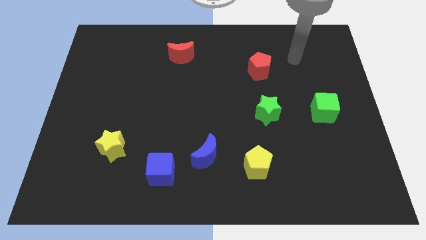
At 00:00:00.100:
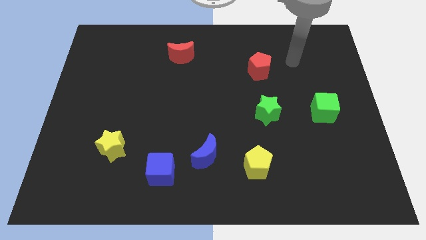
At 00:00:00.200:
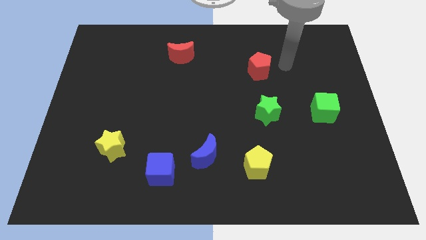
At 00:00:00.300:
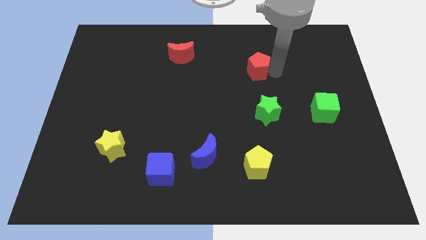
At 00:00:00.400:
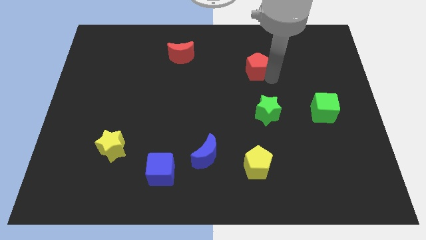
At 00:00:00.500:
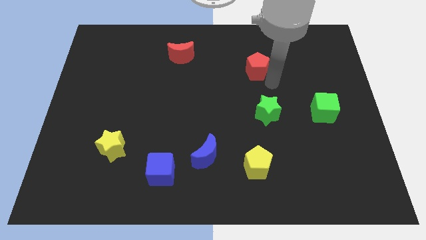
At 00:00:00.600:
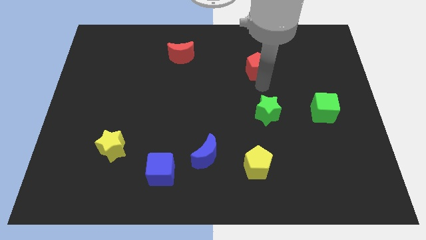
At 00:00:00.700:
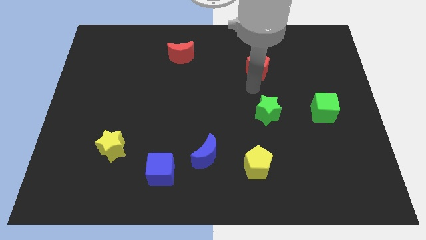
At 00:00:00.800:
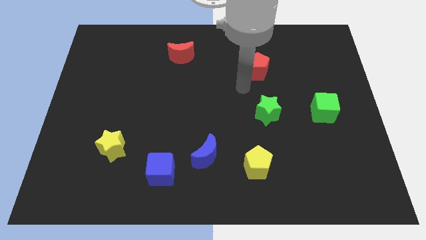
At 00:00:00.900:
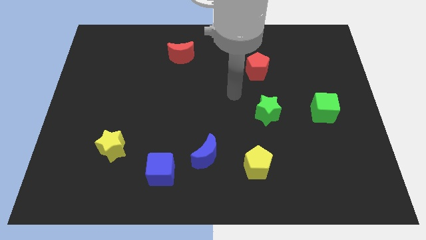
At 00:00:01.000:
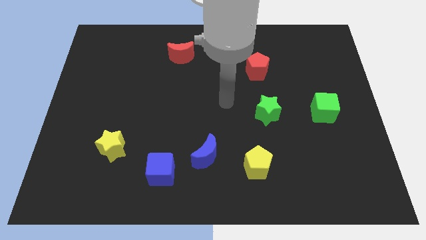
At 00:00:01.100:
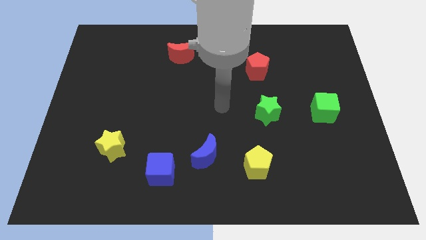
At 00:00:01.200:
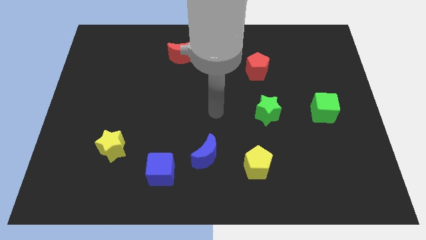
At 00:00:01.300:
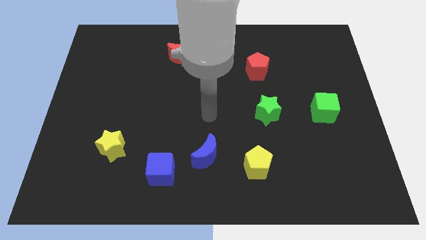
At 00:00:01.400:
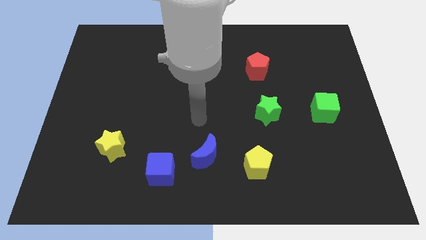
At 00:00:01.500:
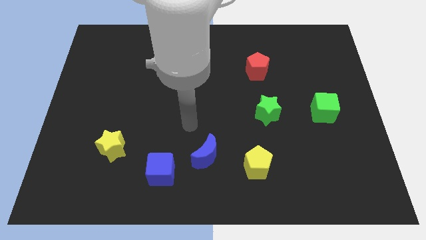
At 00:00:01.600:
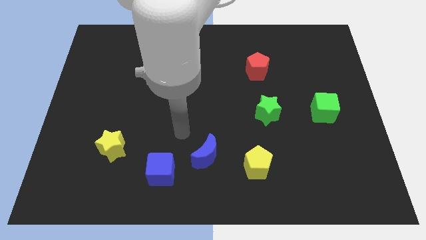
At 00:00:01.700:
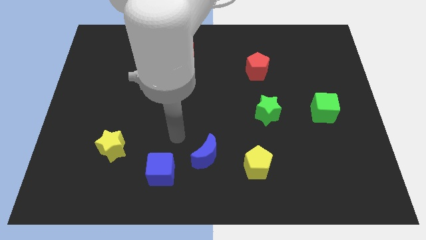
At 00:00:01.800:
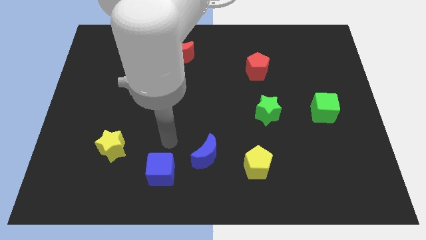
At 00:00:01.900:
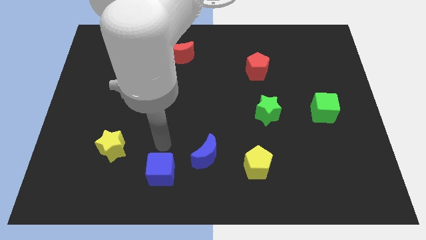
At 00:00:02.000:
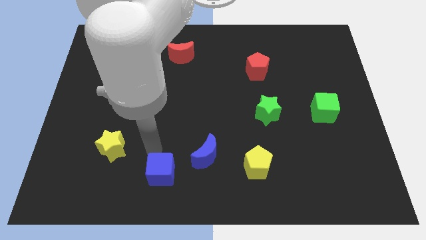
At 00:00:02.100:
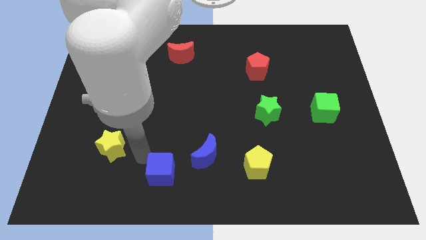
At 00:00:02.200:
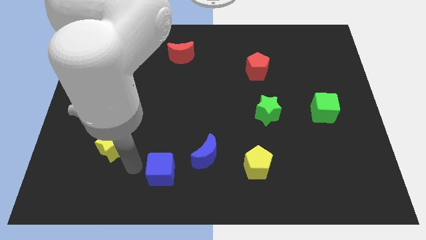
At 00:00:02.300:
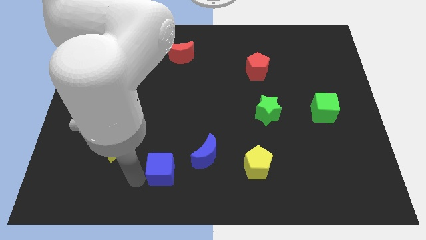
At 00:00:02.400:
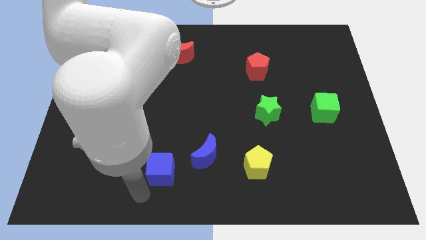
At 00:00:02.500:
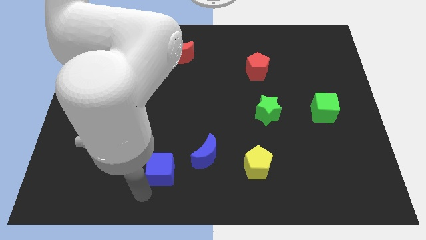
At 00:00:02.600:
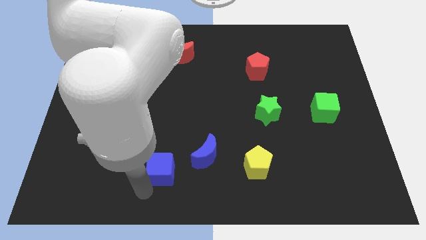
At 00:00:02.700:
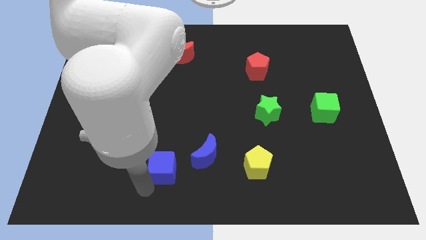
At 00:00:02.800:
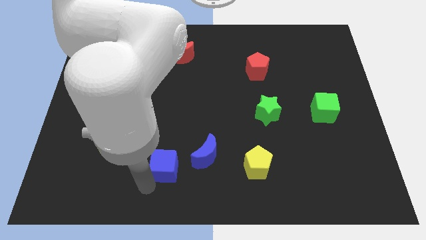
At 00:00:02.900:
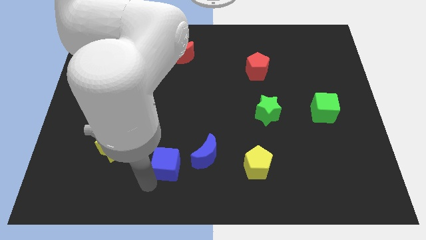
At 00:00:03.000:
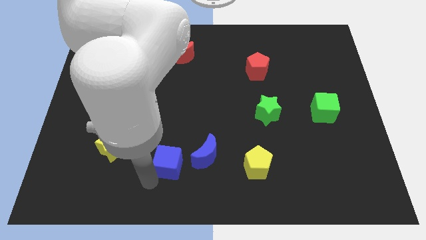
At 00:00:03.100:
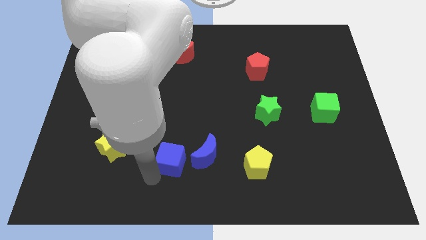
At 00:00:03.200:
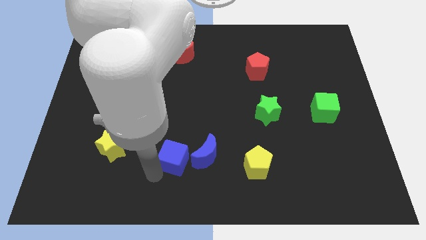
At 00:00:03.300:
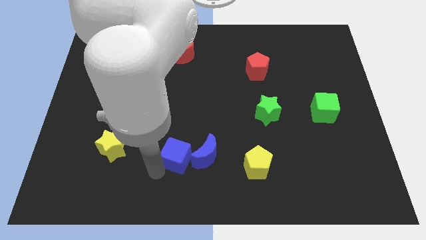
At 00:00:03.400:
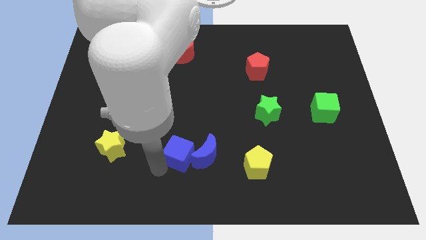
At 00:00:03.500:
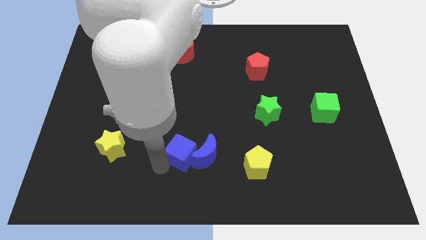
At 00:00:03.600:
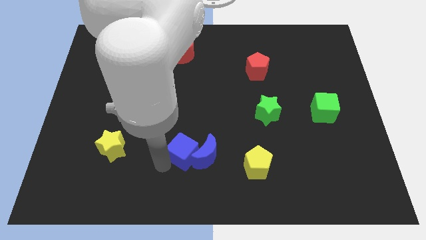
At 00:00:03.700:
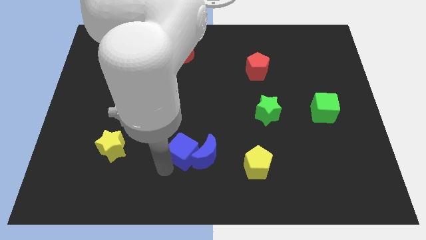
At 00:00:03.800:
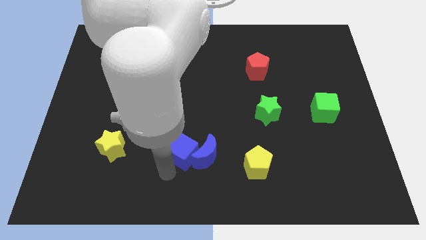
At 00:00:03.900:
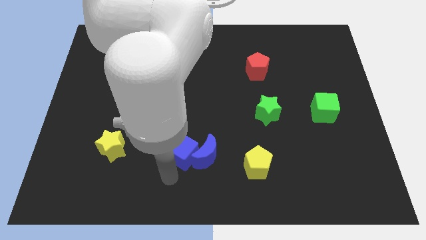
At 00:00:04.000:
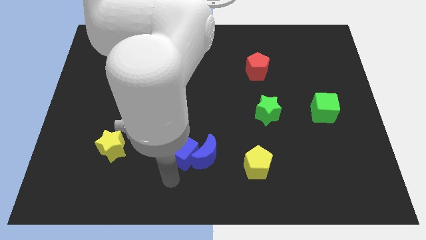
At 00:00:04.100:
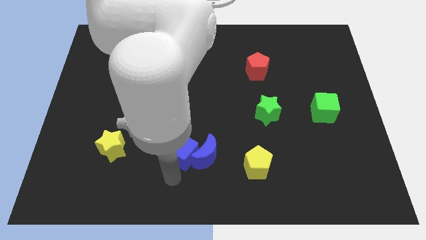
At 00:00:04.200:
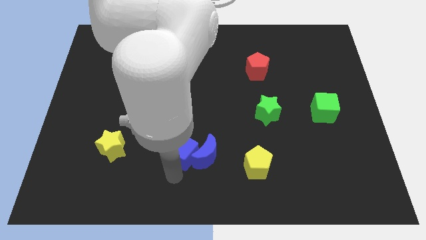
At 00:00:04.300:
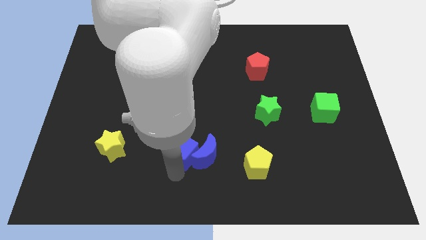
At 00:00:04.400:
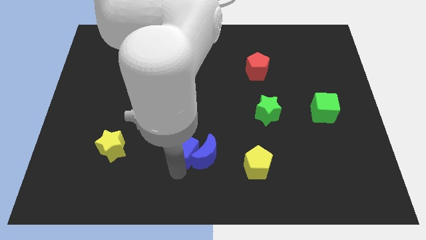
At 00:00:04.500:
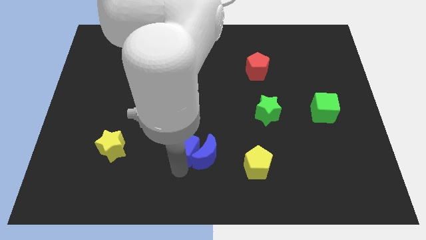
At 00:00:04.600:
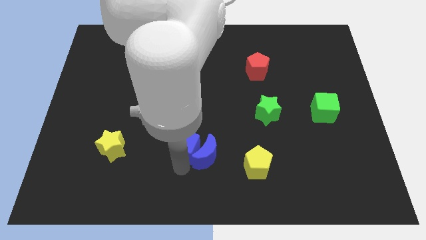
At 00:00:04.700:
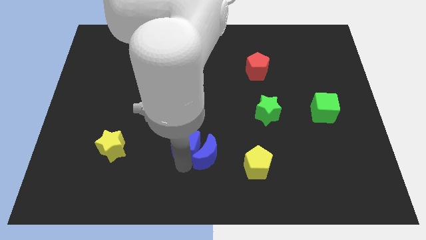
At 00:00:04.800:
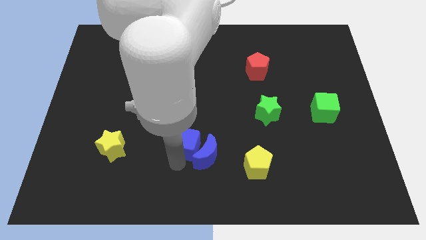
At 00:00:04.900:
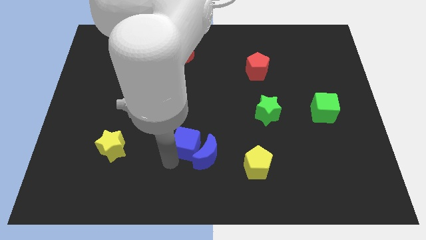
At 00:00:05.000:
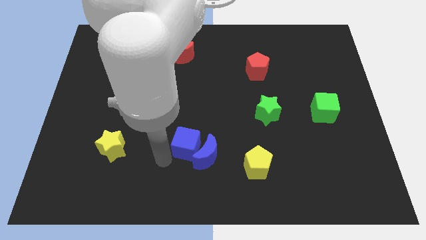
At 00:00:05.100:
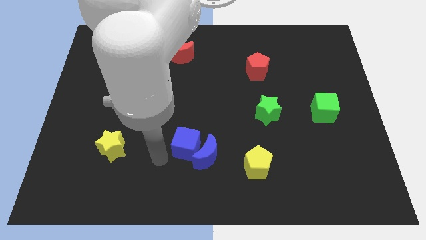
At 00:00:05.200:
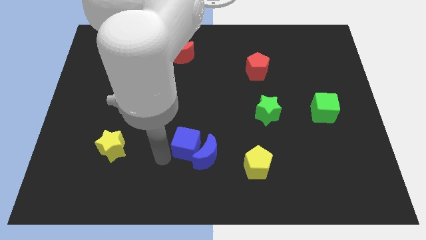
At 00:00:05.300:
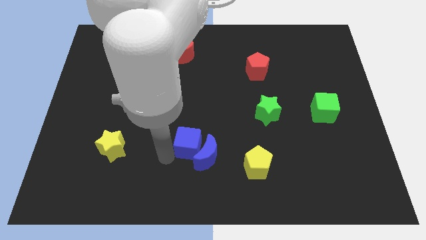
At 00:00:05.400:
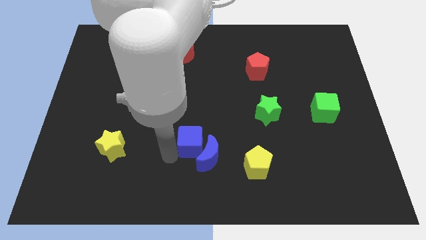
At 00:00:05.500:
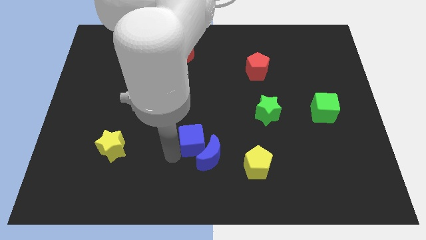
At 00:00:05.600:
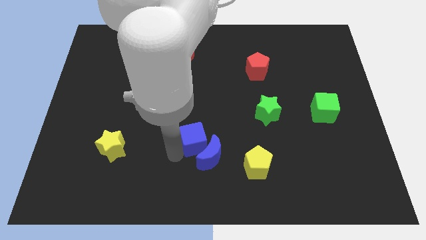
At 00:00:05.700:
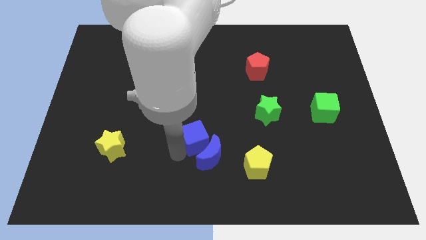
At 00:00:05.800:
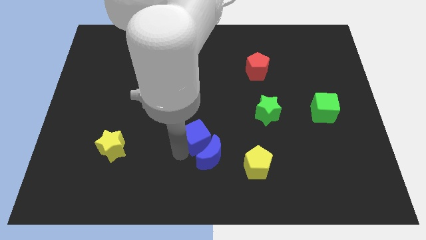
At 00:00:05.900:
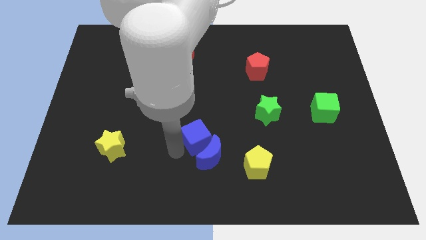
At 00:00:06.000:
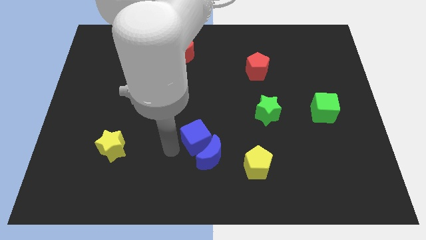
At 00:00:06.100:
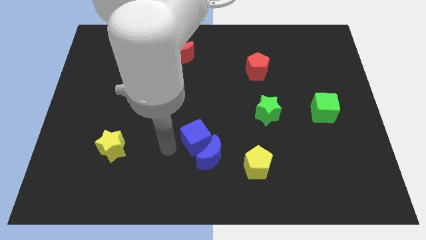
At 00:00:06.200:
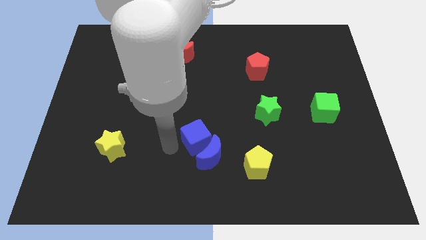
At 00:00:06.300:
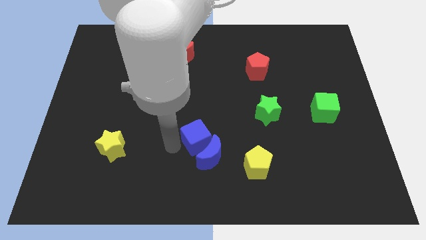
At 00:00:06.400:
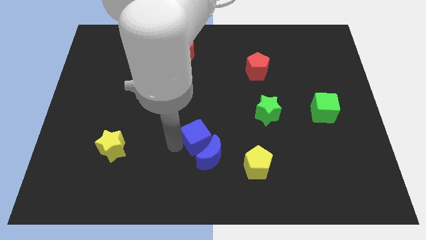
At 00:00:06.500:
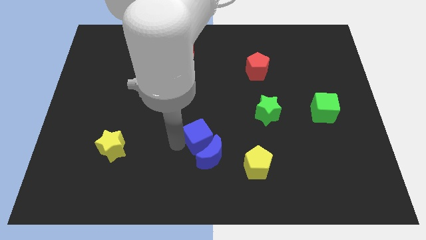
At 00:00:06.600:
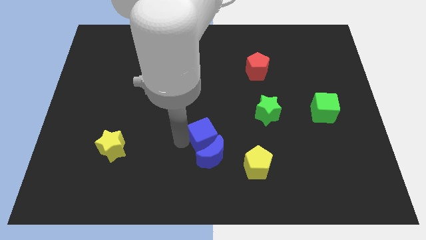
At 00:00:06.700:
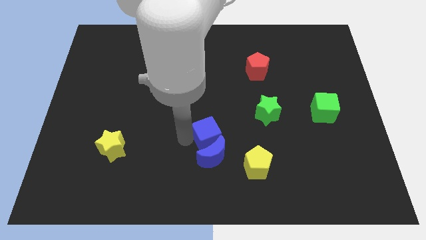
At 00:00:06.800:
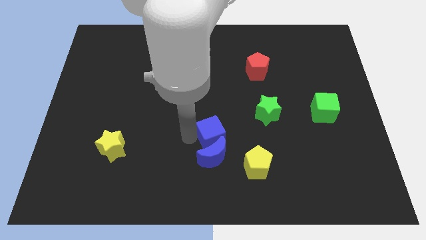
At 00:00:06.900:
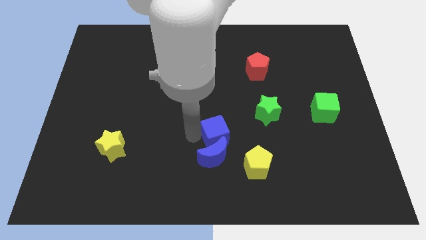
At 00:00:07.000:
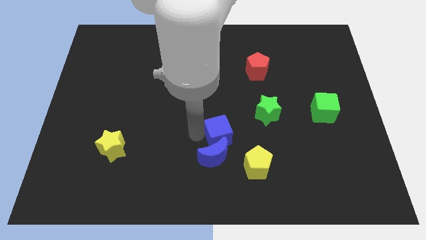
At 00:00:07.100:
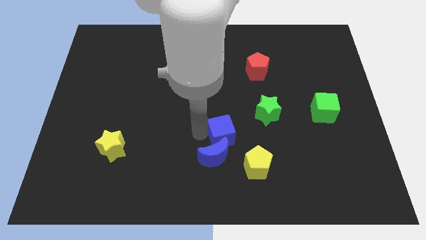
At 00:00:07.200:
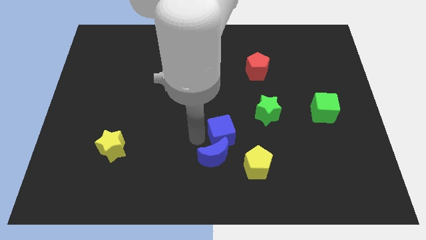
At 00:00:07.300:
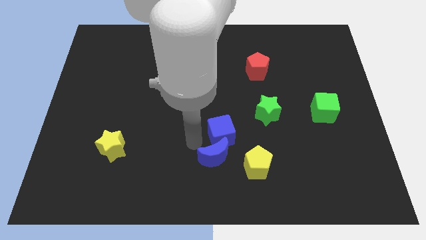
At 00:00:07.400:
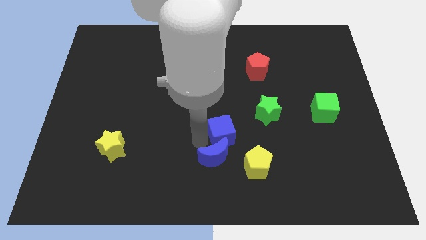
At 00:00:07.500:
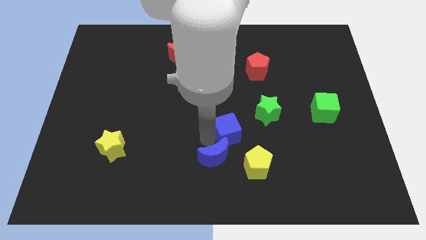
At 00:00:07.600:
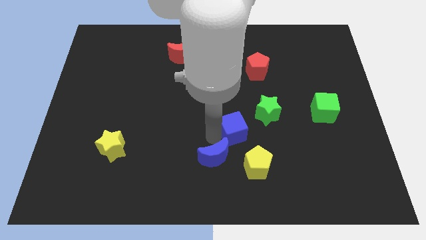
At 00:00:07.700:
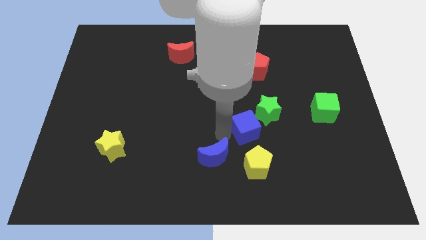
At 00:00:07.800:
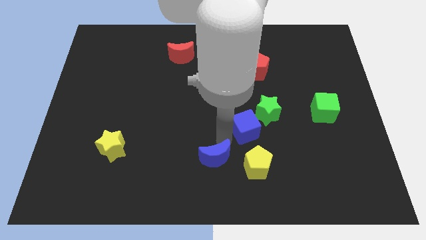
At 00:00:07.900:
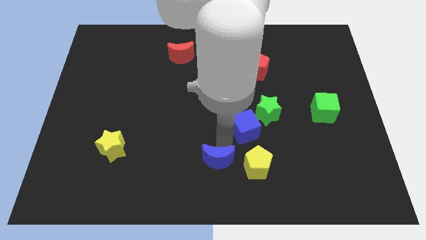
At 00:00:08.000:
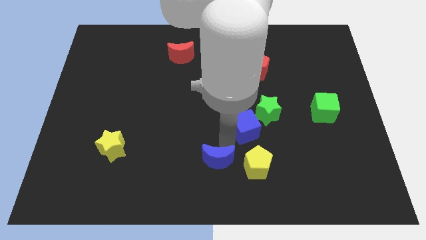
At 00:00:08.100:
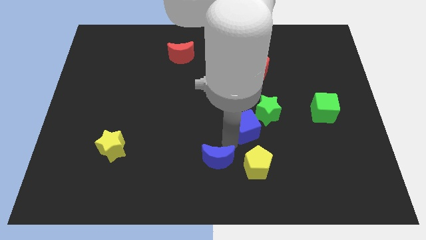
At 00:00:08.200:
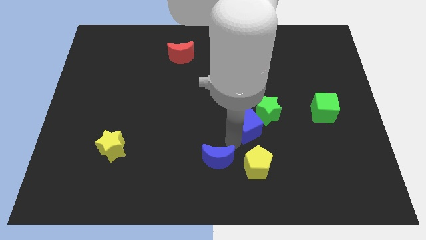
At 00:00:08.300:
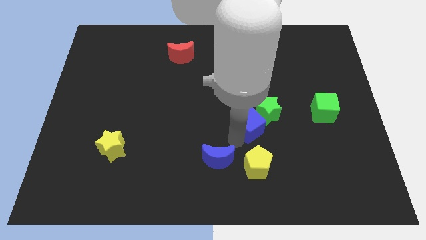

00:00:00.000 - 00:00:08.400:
move the blue cube to the green star
